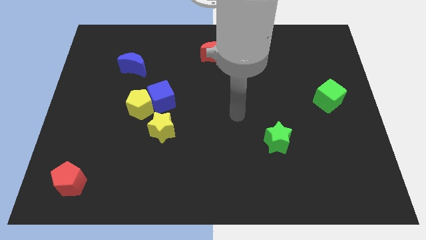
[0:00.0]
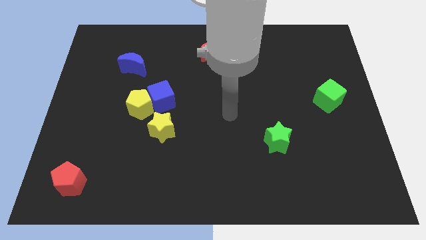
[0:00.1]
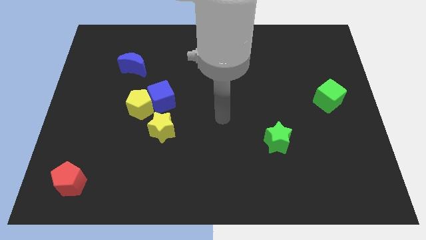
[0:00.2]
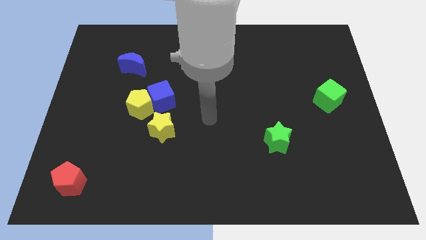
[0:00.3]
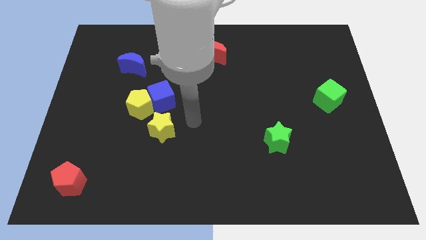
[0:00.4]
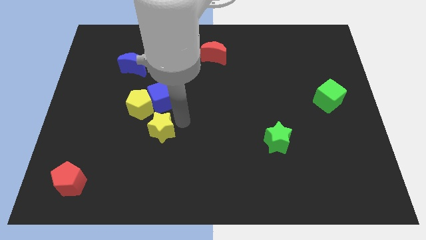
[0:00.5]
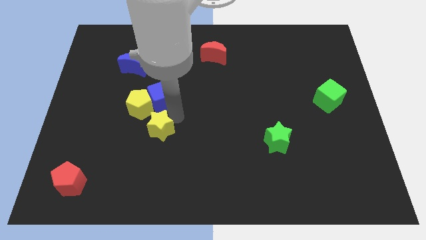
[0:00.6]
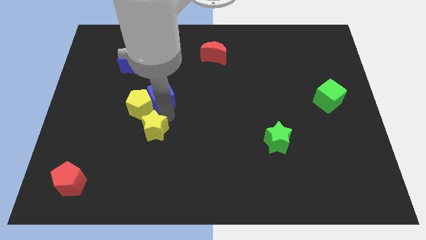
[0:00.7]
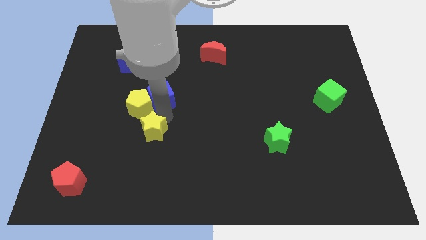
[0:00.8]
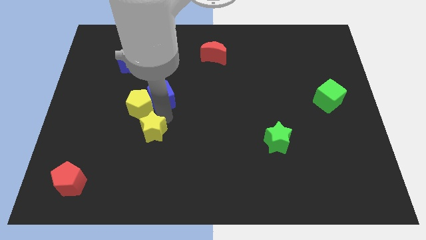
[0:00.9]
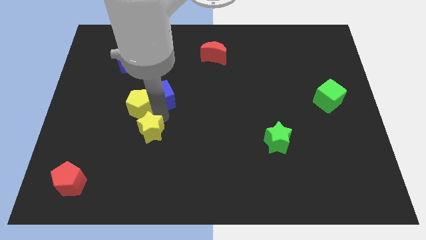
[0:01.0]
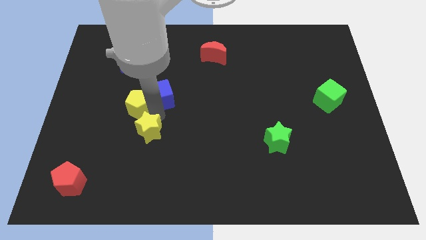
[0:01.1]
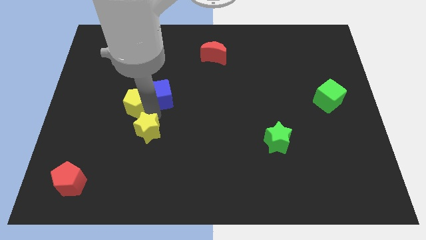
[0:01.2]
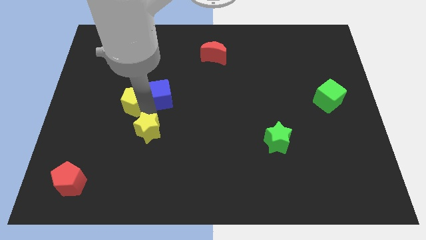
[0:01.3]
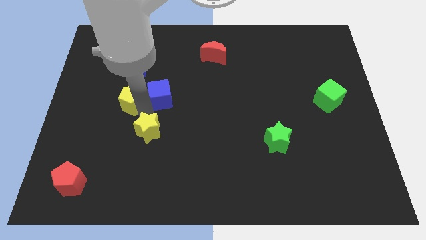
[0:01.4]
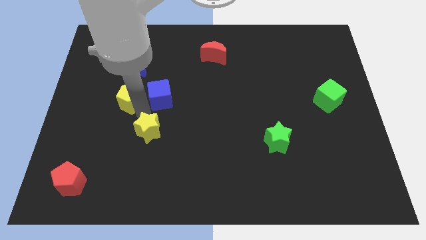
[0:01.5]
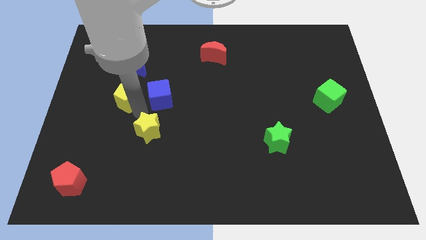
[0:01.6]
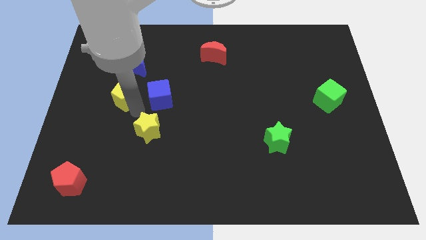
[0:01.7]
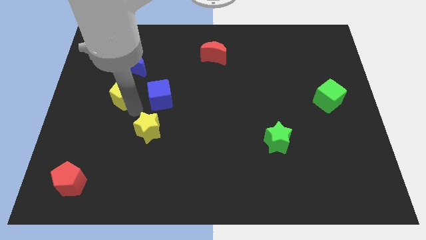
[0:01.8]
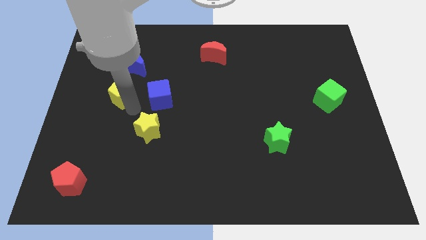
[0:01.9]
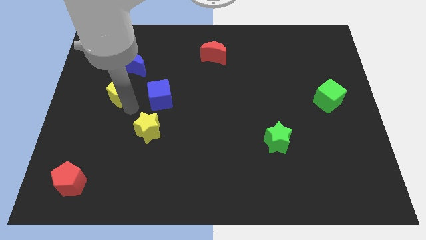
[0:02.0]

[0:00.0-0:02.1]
move the yellow pentagon away from the blue cube and yellow star

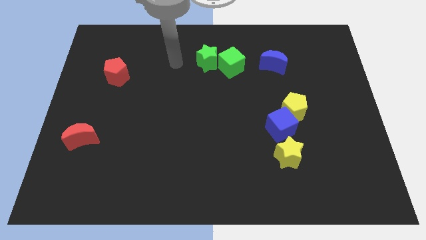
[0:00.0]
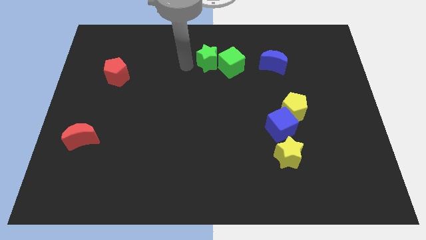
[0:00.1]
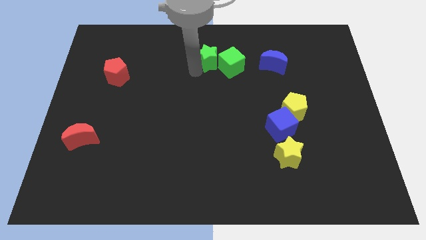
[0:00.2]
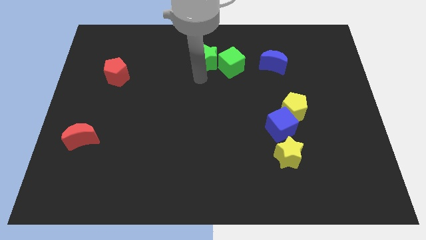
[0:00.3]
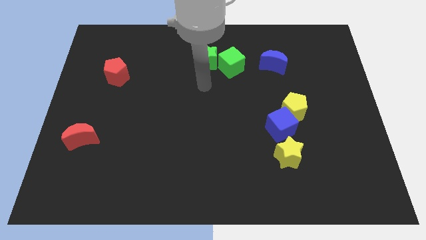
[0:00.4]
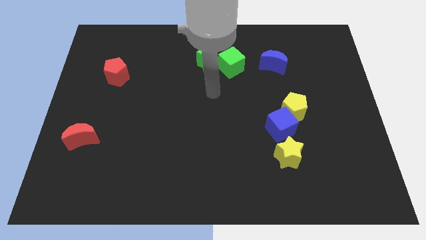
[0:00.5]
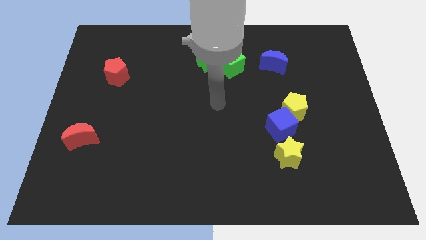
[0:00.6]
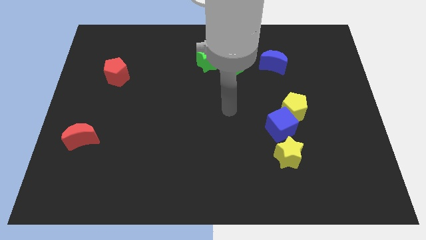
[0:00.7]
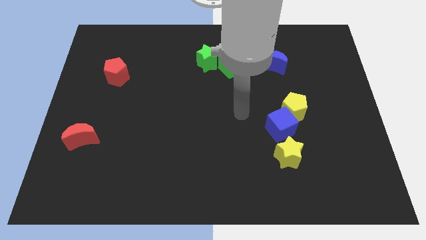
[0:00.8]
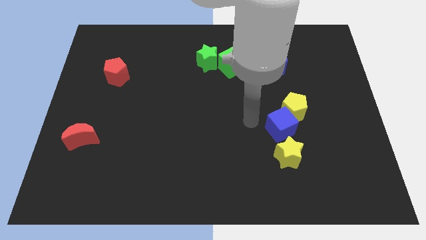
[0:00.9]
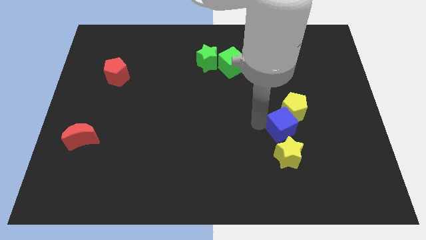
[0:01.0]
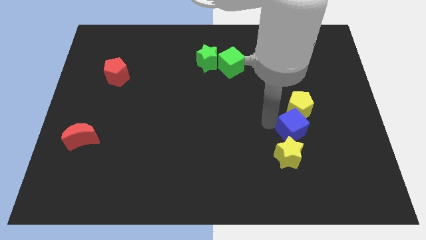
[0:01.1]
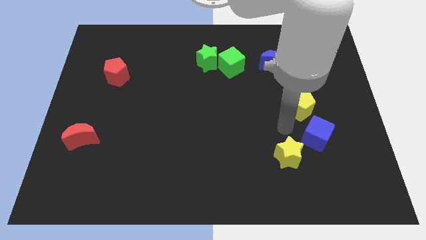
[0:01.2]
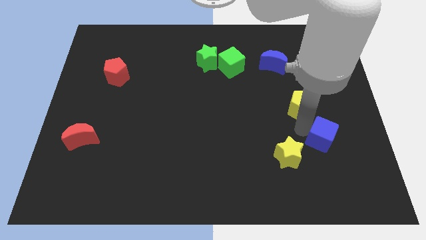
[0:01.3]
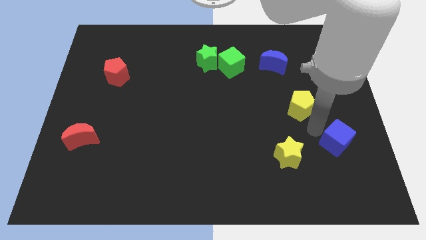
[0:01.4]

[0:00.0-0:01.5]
separate the yellow pentagon from the blue cube

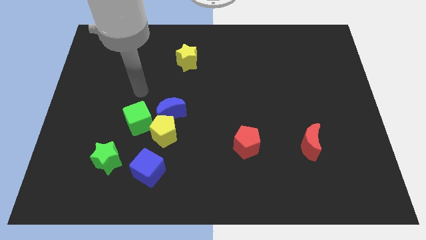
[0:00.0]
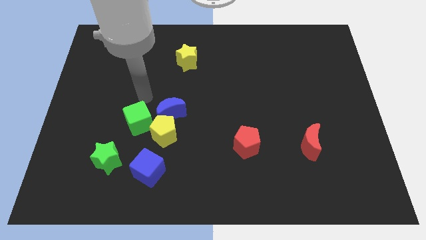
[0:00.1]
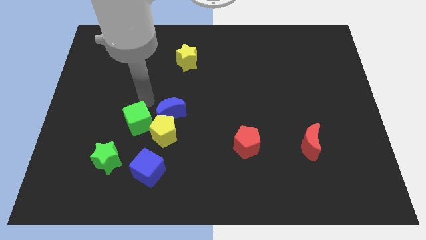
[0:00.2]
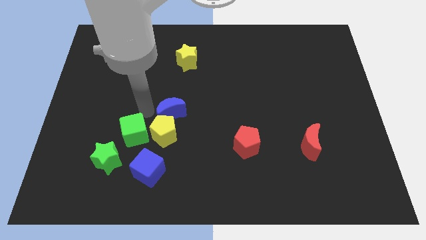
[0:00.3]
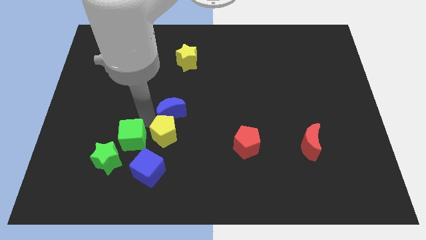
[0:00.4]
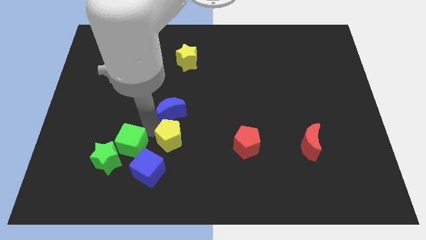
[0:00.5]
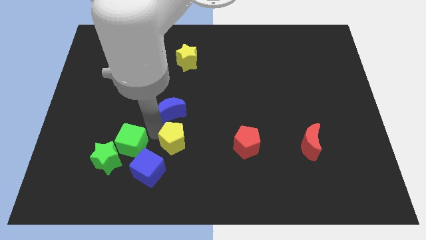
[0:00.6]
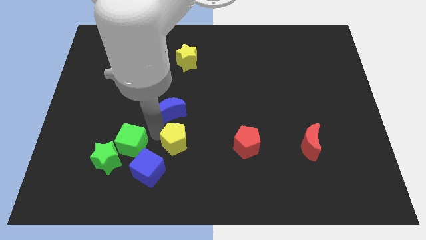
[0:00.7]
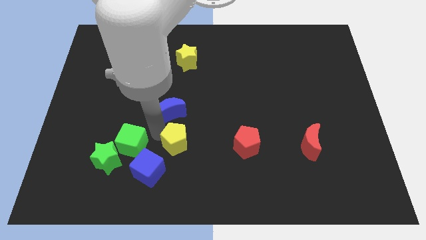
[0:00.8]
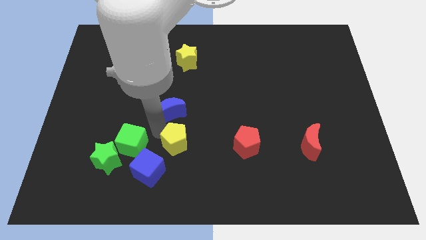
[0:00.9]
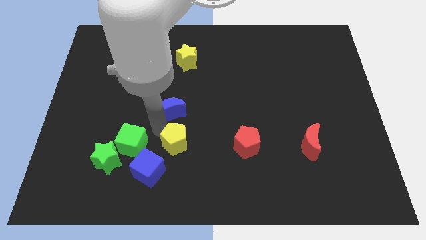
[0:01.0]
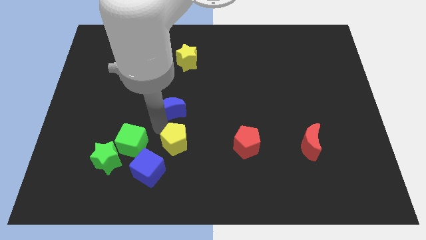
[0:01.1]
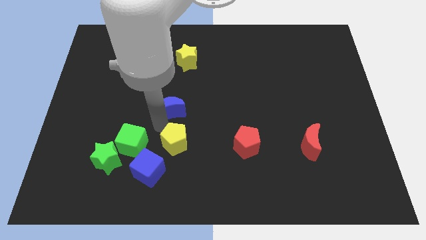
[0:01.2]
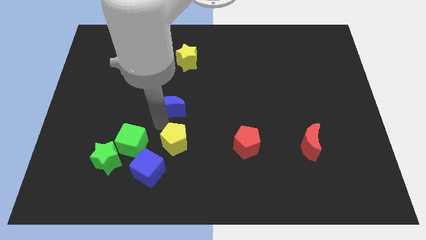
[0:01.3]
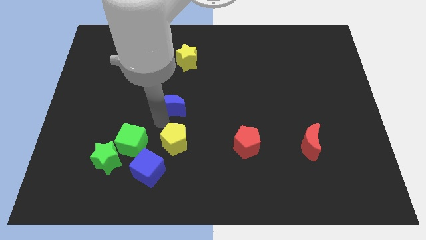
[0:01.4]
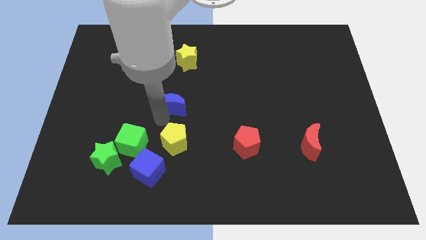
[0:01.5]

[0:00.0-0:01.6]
pull the blue moon apart from the yellow pentagon and green cube

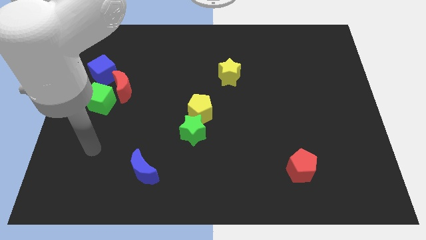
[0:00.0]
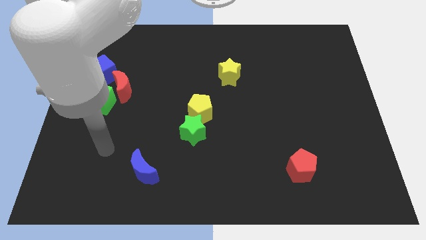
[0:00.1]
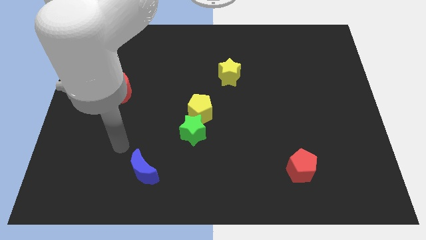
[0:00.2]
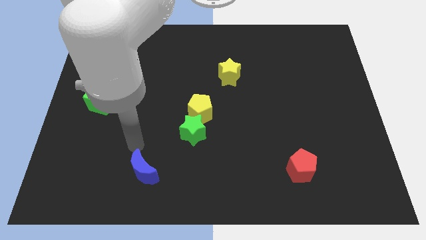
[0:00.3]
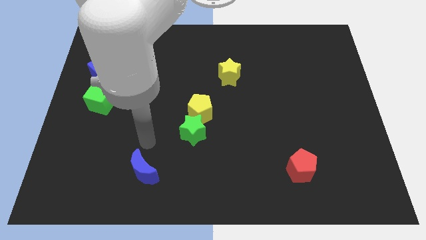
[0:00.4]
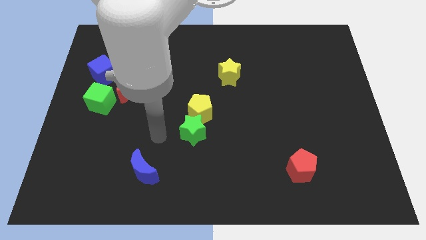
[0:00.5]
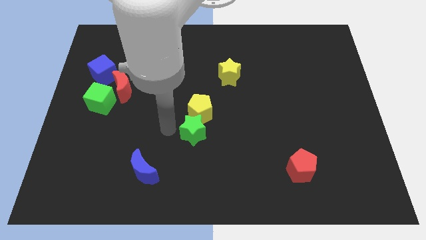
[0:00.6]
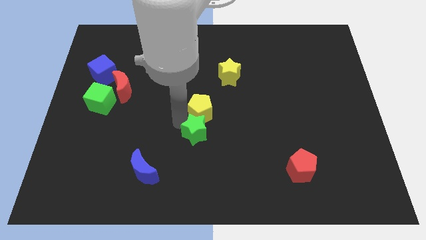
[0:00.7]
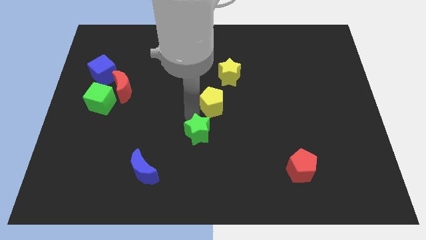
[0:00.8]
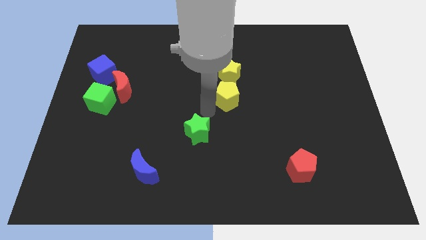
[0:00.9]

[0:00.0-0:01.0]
move the green star away from the yellow pentagon

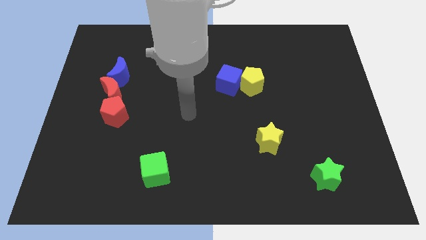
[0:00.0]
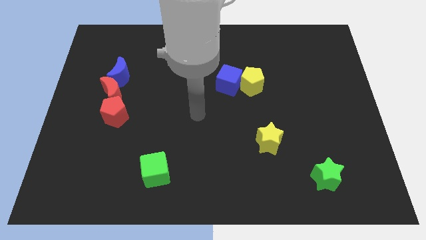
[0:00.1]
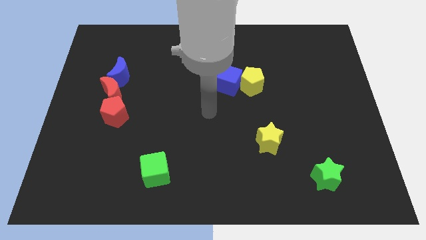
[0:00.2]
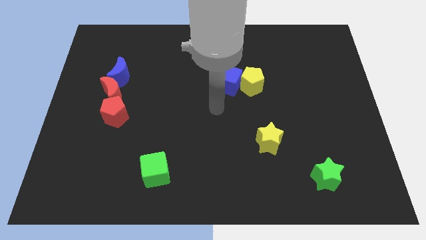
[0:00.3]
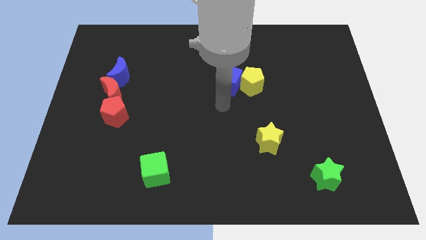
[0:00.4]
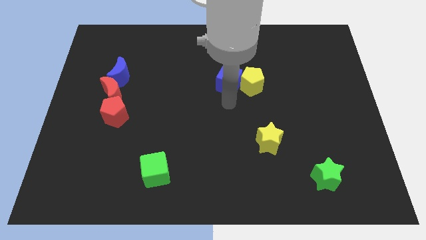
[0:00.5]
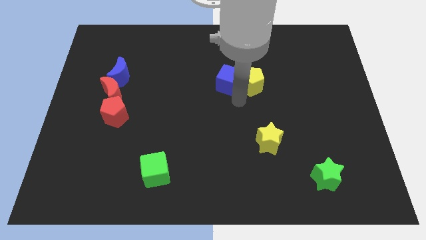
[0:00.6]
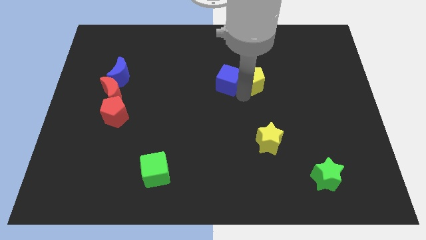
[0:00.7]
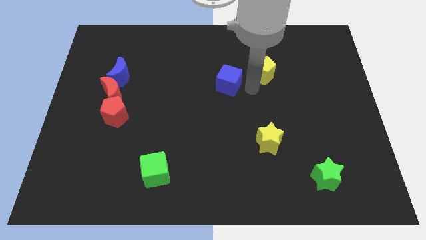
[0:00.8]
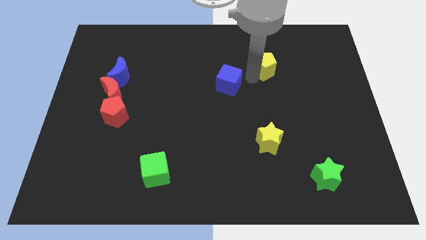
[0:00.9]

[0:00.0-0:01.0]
move the blue cube away from the yellow pentagon

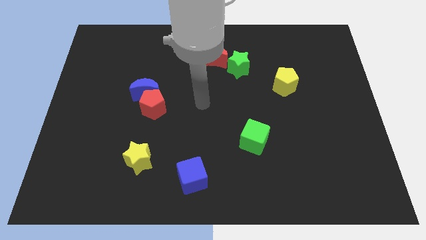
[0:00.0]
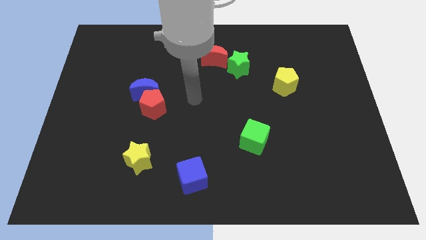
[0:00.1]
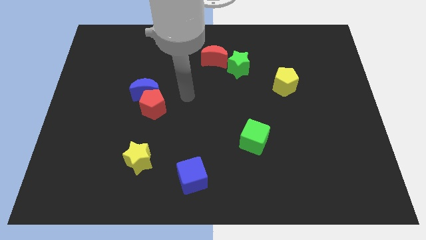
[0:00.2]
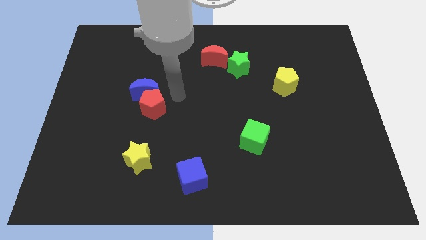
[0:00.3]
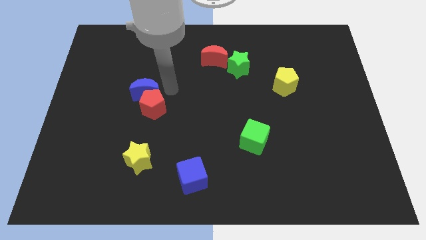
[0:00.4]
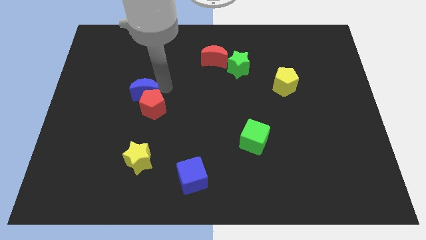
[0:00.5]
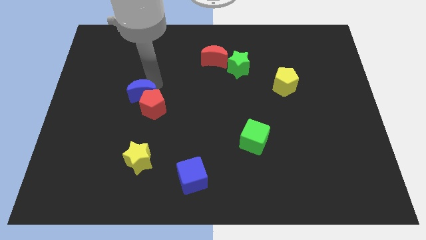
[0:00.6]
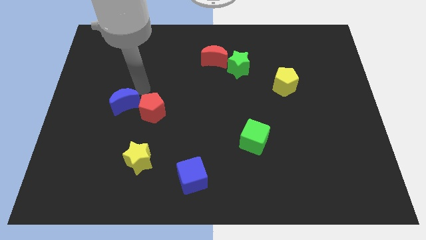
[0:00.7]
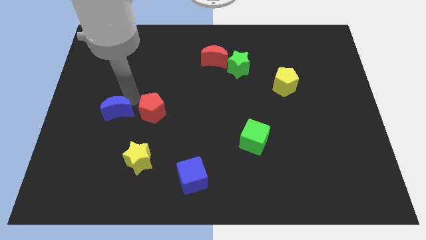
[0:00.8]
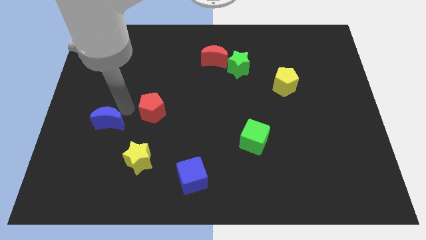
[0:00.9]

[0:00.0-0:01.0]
separate the red pentagon from the blue moon

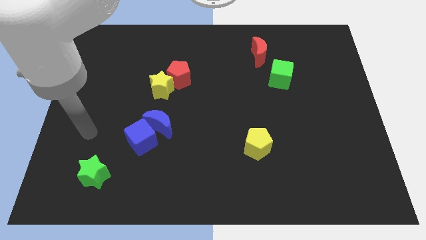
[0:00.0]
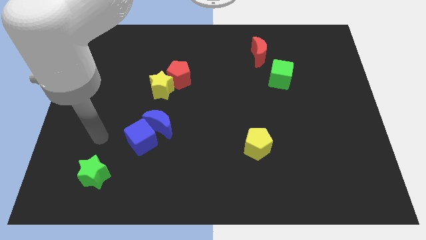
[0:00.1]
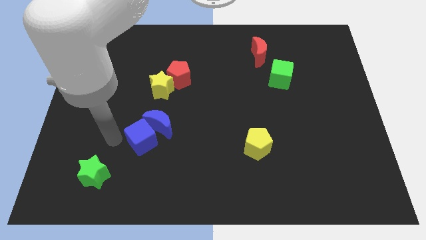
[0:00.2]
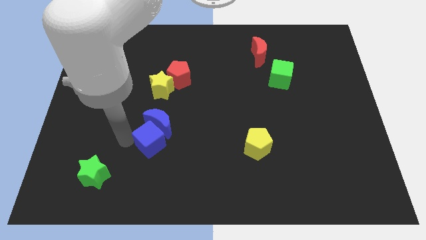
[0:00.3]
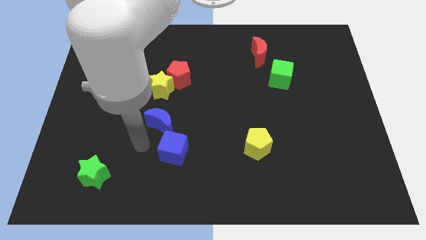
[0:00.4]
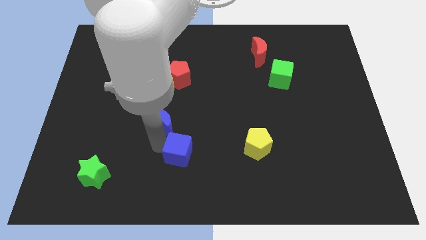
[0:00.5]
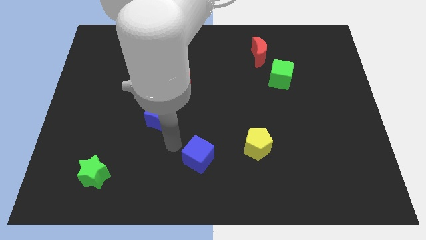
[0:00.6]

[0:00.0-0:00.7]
pull the blue moon apart from the blue cube

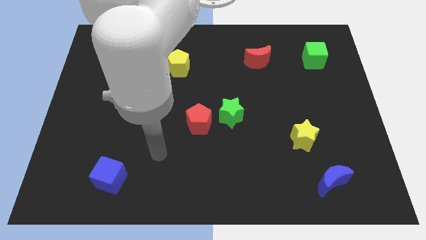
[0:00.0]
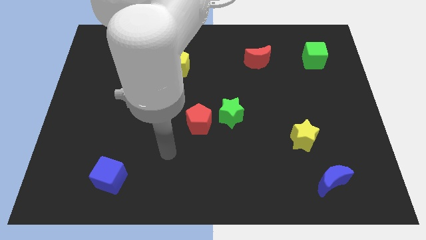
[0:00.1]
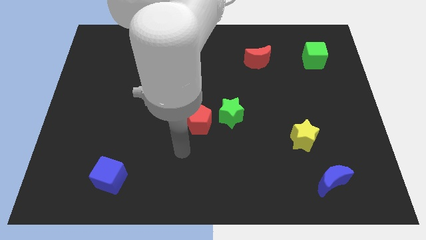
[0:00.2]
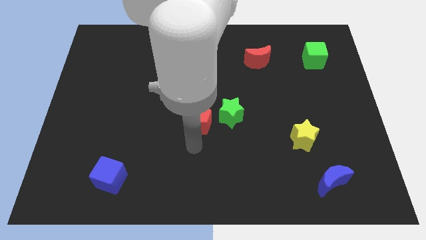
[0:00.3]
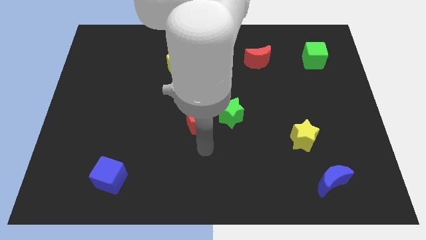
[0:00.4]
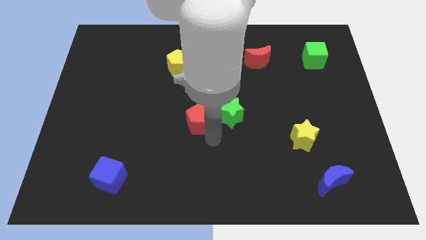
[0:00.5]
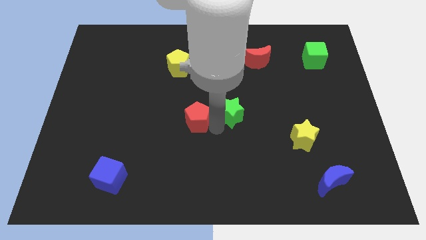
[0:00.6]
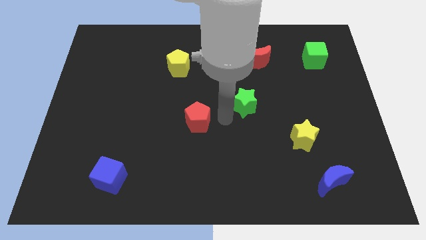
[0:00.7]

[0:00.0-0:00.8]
pull the red pentagon apart from the green star
